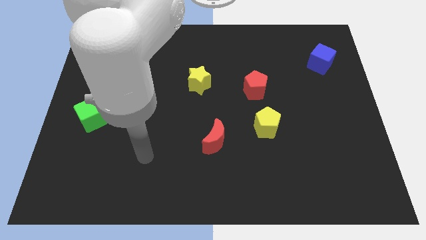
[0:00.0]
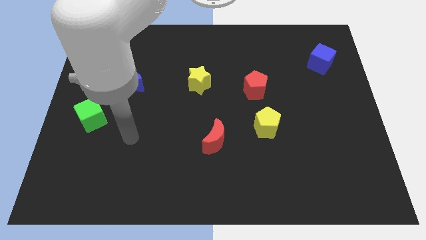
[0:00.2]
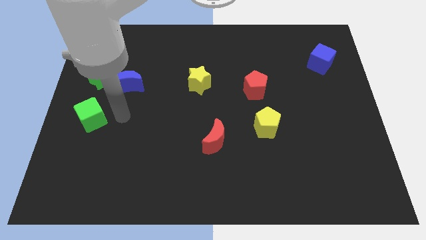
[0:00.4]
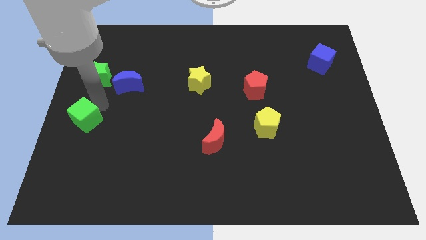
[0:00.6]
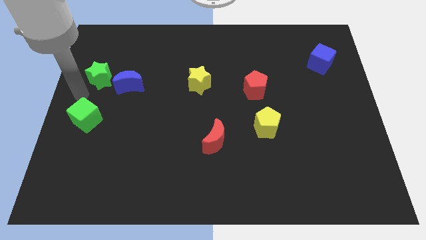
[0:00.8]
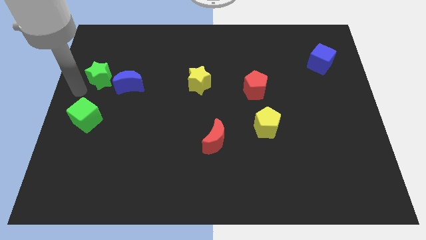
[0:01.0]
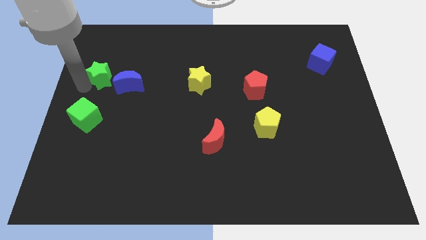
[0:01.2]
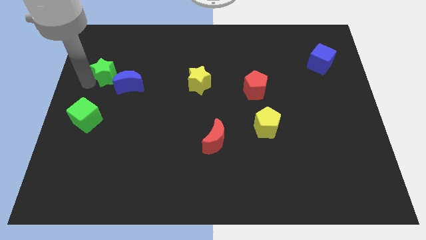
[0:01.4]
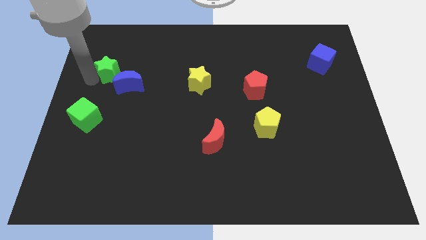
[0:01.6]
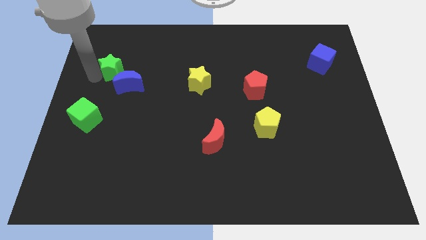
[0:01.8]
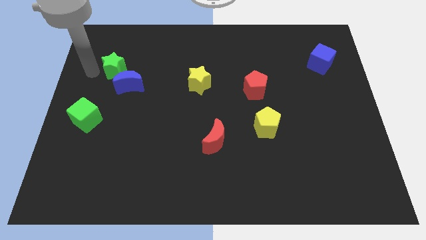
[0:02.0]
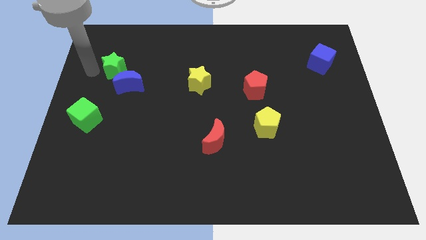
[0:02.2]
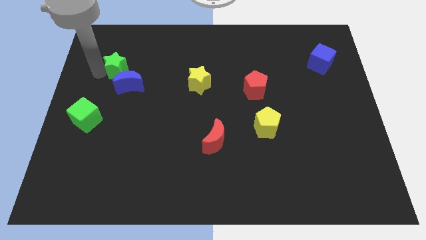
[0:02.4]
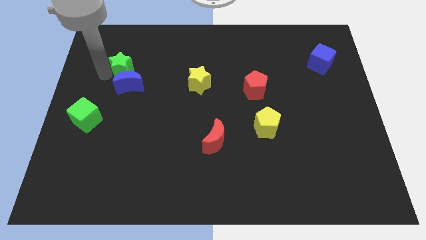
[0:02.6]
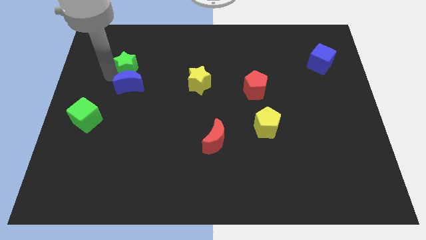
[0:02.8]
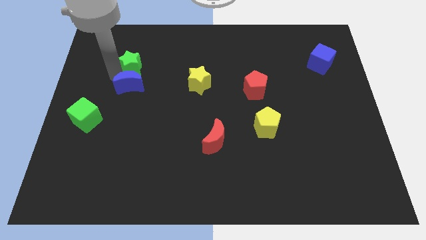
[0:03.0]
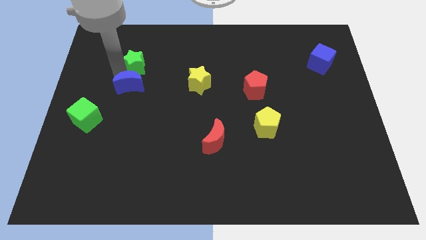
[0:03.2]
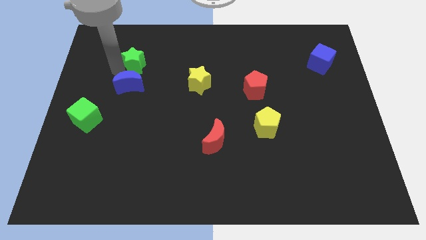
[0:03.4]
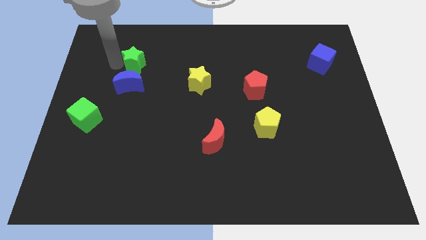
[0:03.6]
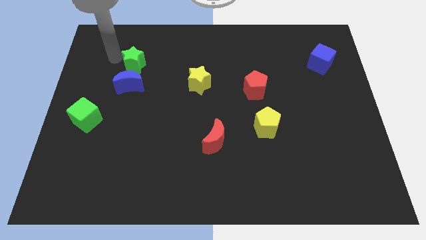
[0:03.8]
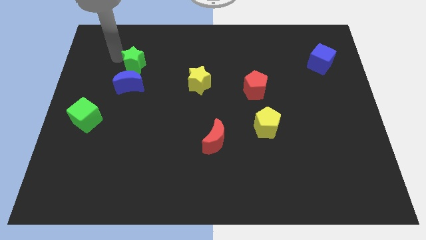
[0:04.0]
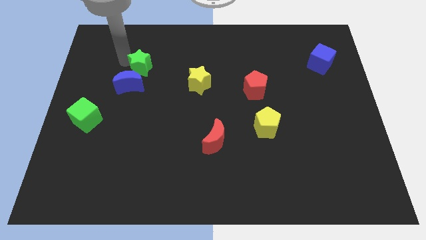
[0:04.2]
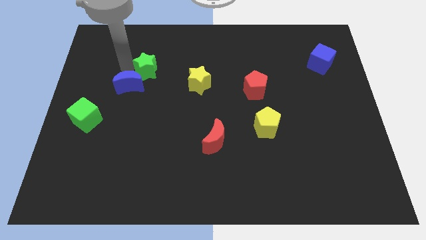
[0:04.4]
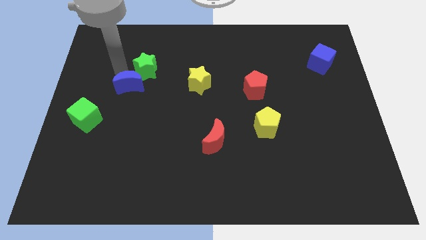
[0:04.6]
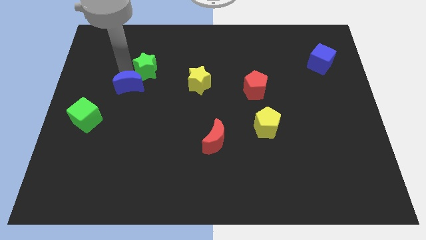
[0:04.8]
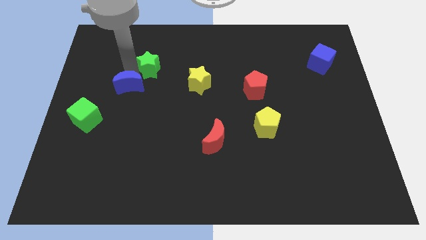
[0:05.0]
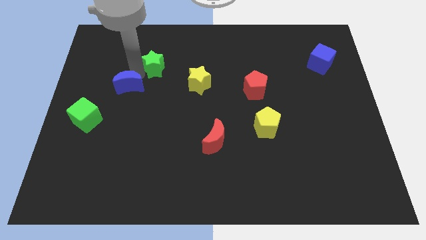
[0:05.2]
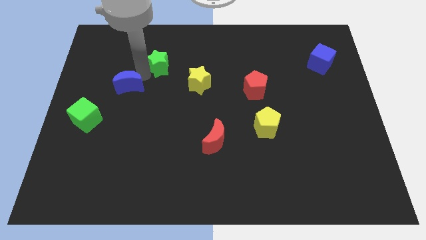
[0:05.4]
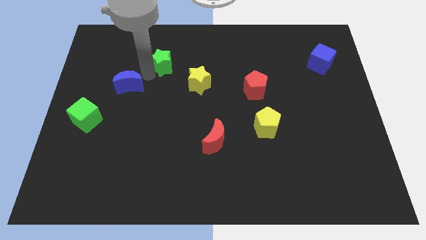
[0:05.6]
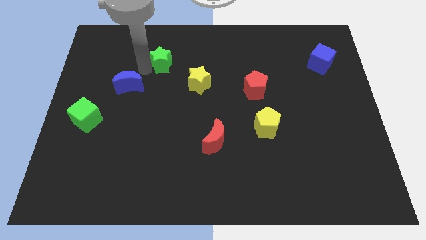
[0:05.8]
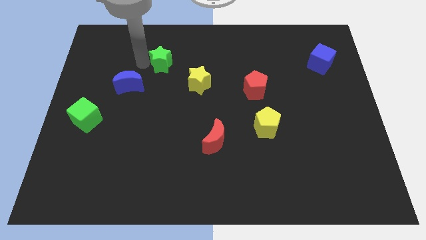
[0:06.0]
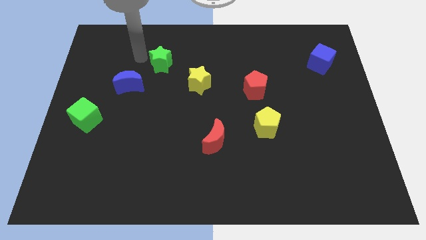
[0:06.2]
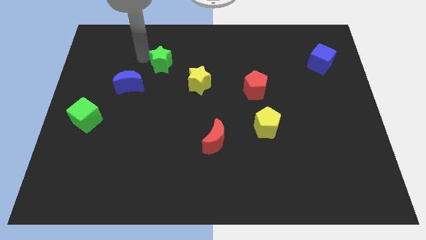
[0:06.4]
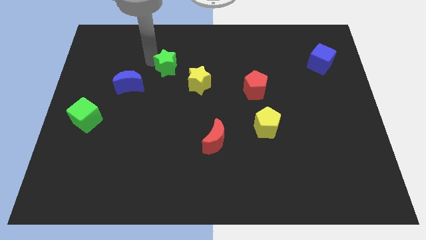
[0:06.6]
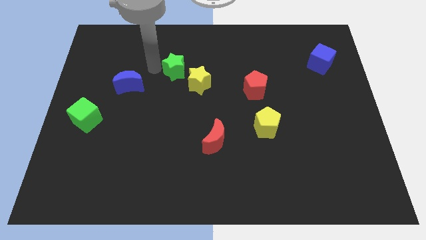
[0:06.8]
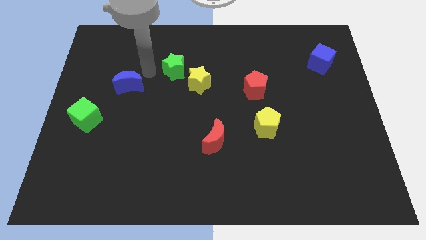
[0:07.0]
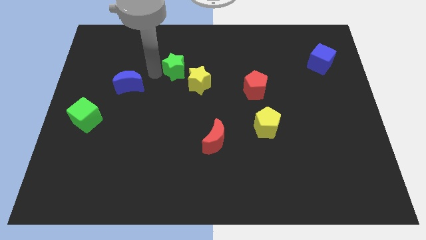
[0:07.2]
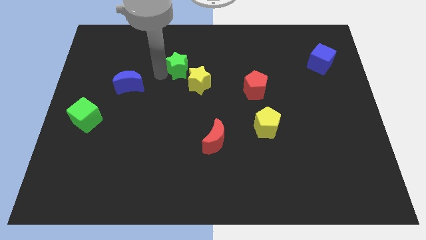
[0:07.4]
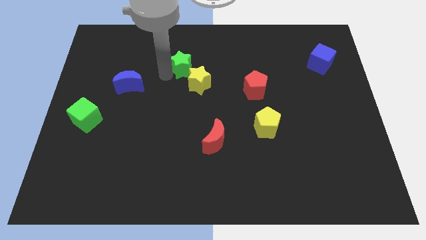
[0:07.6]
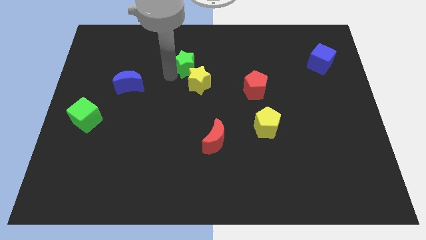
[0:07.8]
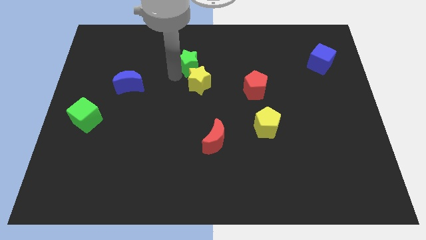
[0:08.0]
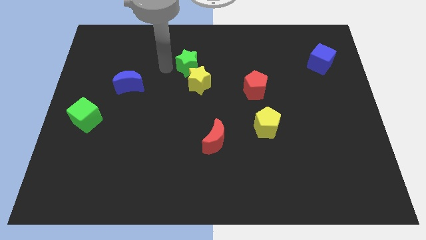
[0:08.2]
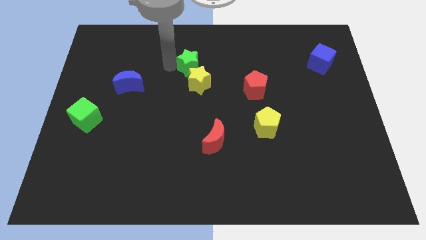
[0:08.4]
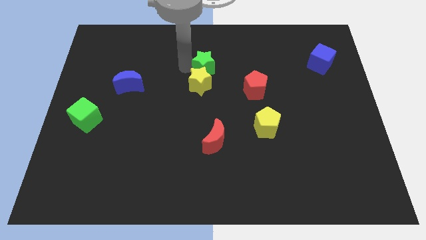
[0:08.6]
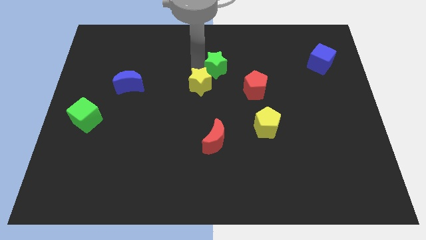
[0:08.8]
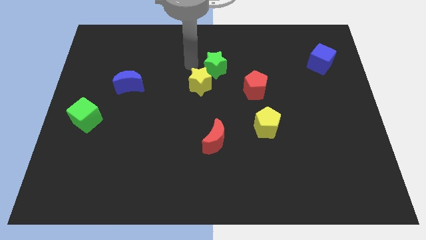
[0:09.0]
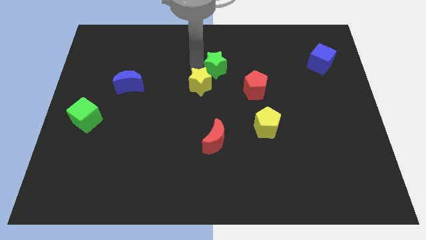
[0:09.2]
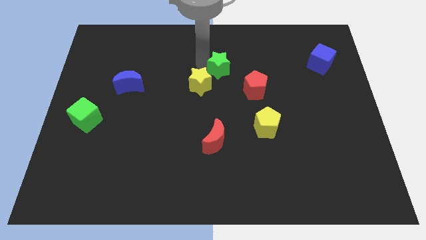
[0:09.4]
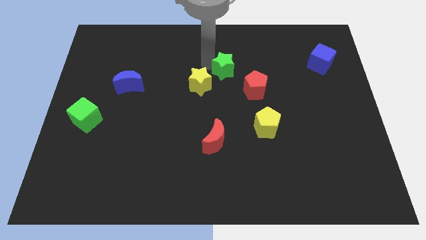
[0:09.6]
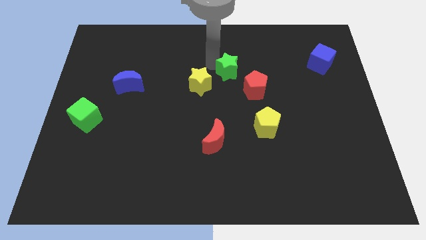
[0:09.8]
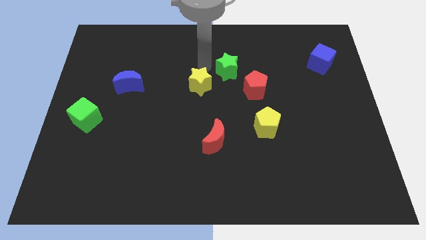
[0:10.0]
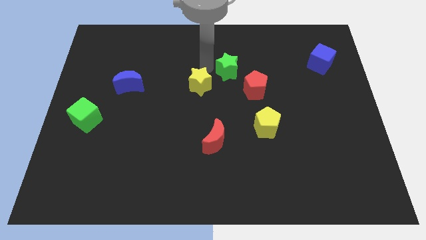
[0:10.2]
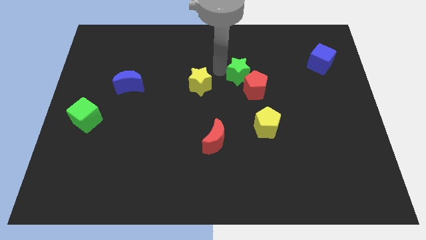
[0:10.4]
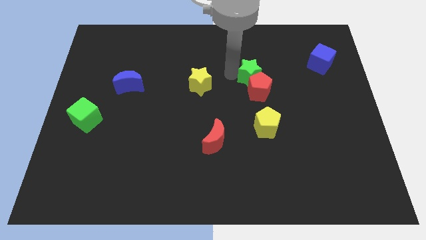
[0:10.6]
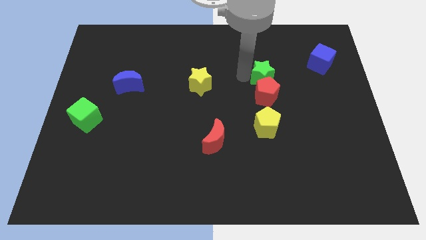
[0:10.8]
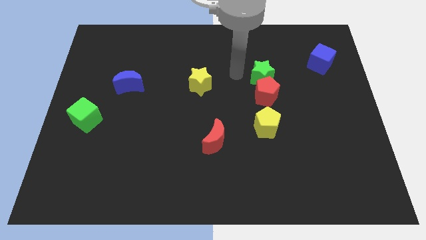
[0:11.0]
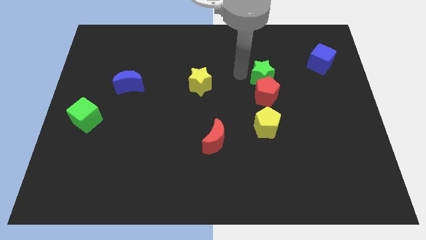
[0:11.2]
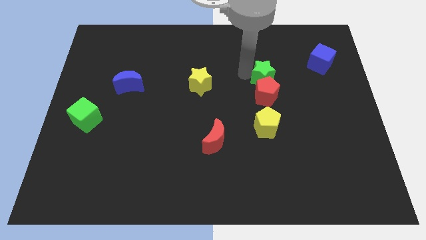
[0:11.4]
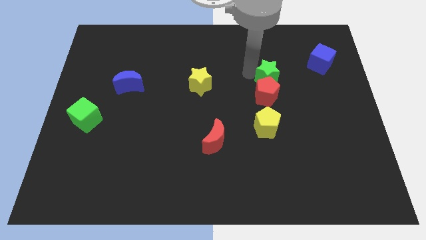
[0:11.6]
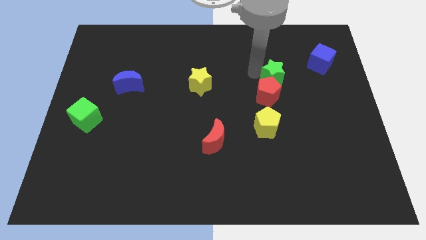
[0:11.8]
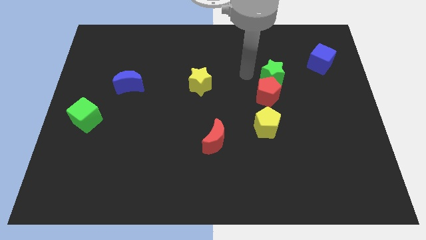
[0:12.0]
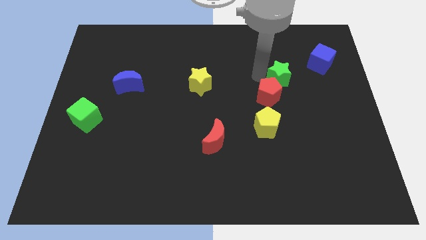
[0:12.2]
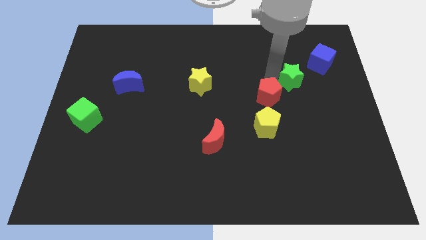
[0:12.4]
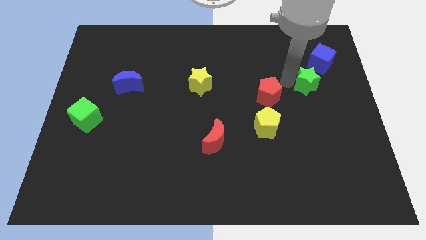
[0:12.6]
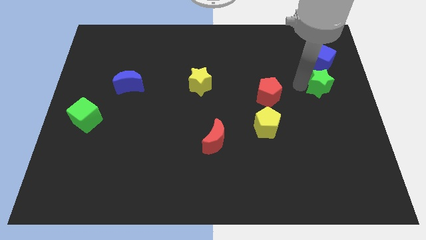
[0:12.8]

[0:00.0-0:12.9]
put the green star to the center right

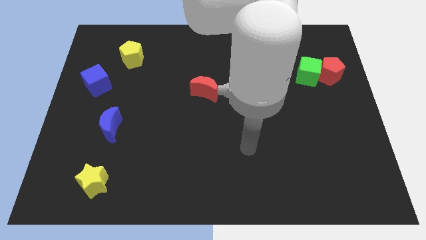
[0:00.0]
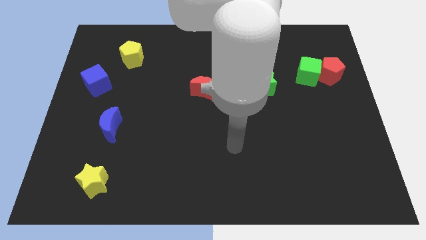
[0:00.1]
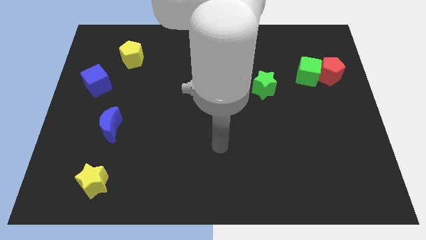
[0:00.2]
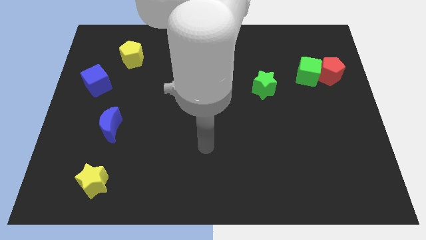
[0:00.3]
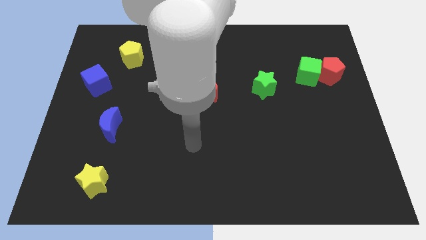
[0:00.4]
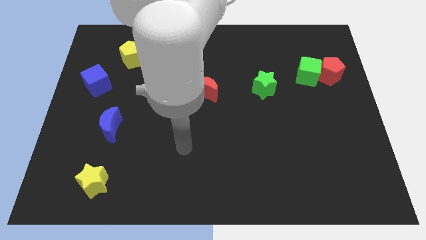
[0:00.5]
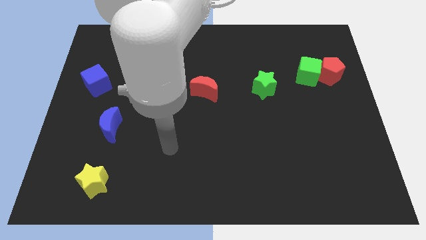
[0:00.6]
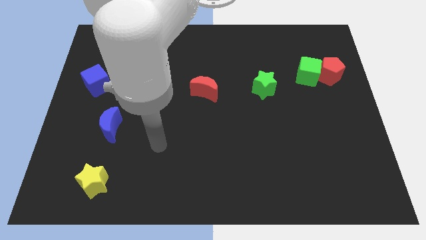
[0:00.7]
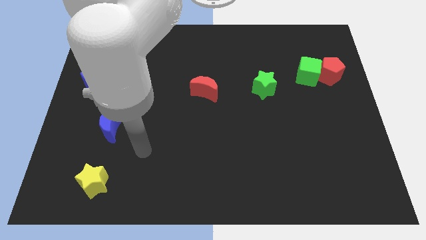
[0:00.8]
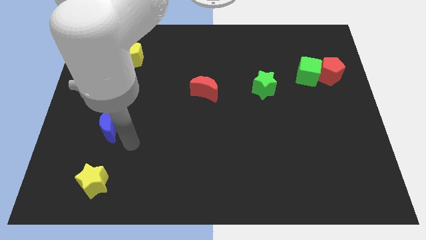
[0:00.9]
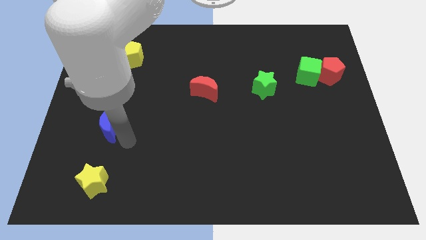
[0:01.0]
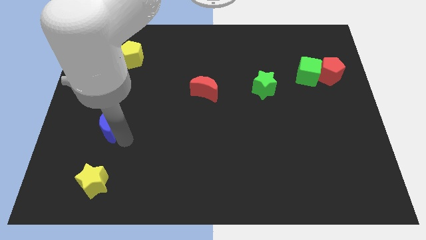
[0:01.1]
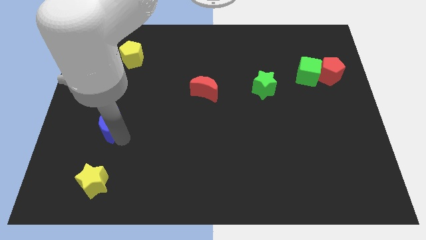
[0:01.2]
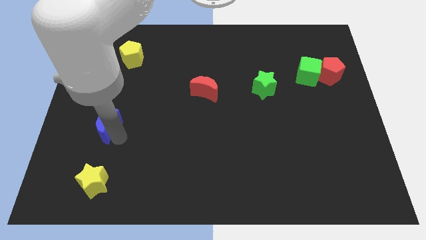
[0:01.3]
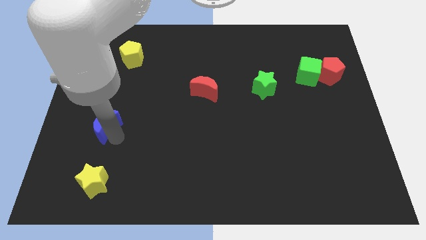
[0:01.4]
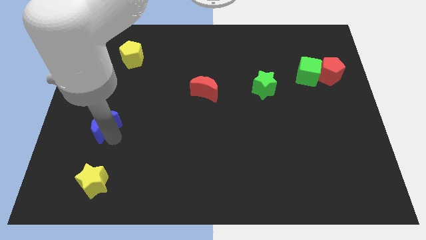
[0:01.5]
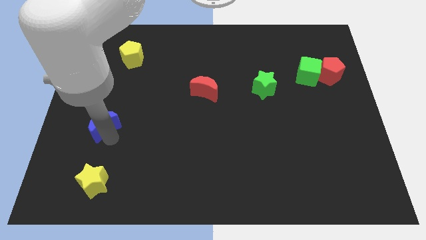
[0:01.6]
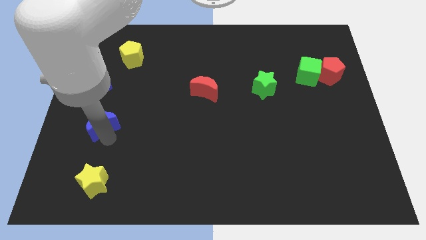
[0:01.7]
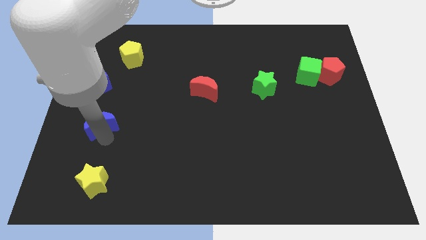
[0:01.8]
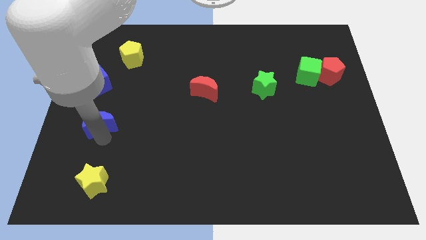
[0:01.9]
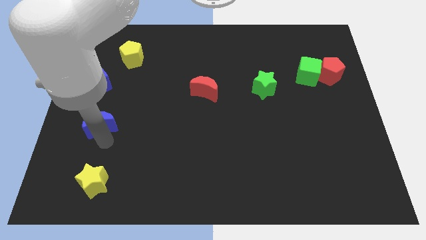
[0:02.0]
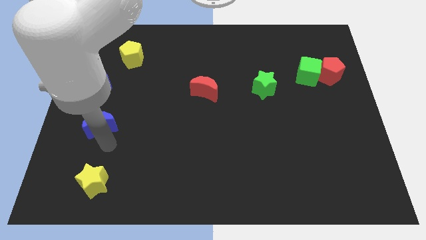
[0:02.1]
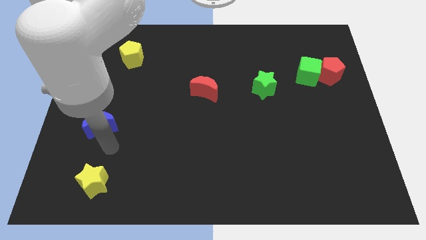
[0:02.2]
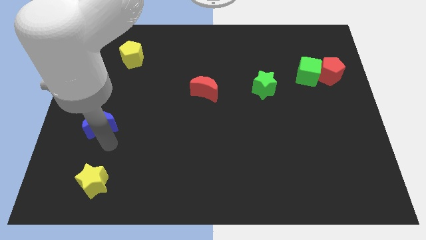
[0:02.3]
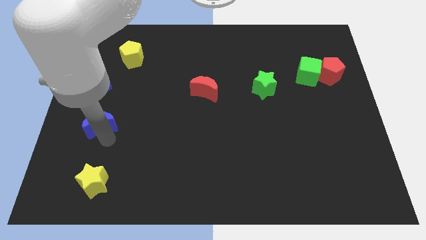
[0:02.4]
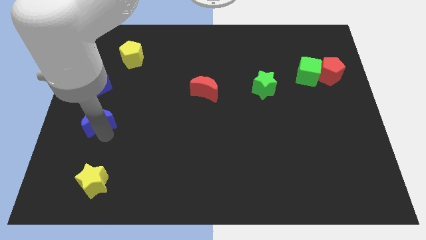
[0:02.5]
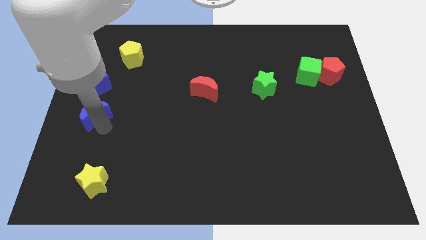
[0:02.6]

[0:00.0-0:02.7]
push the blue moon to the left side
